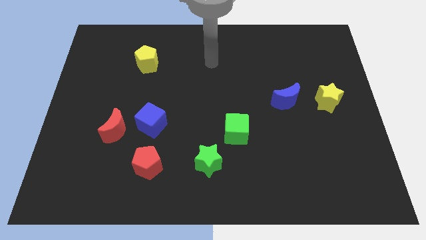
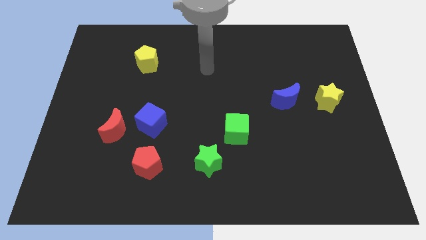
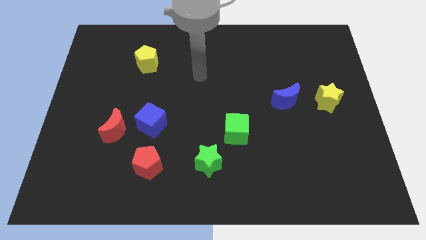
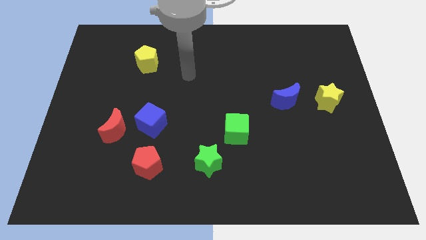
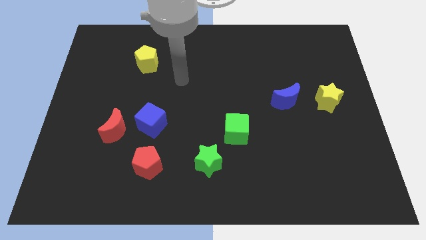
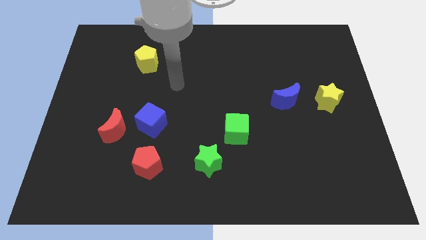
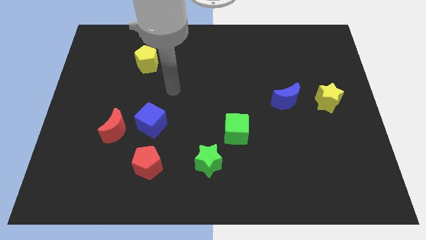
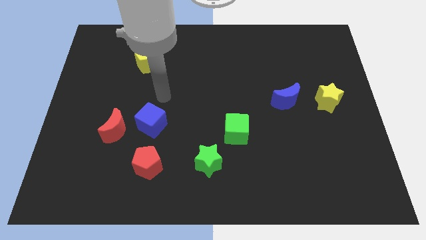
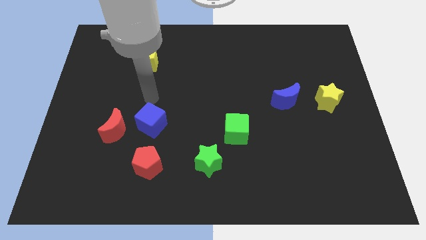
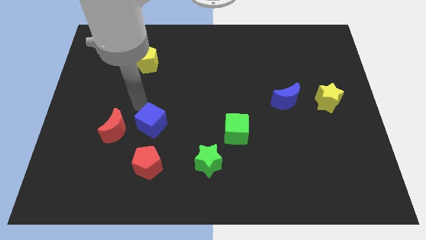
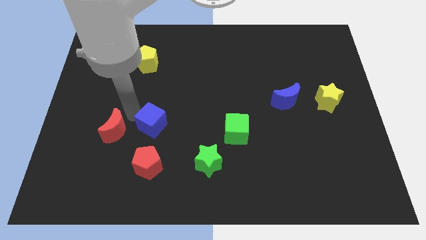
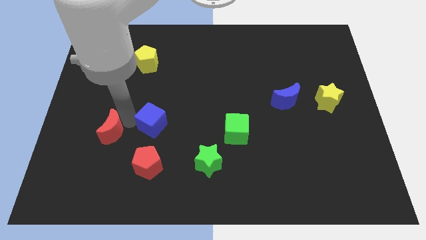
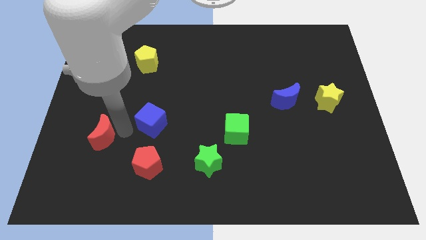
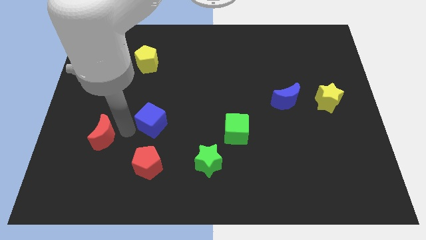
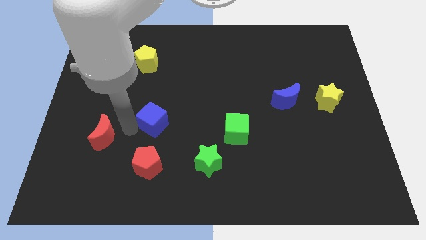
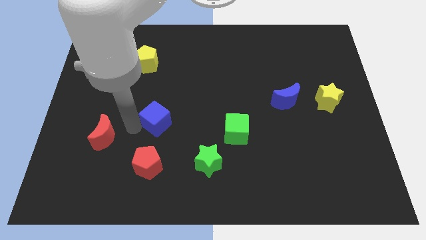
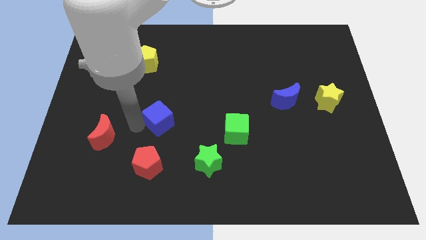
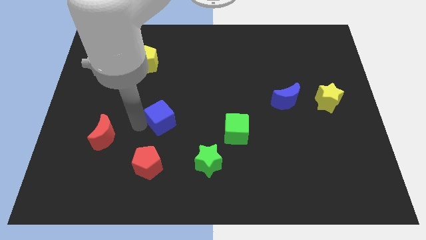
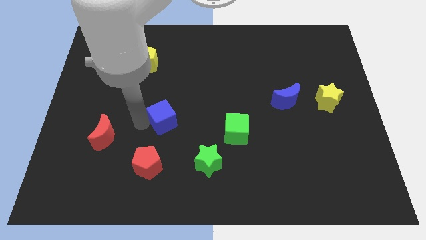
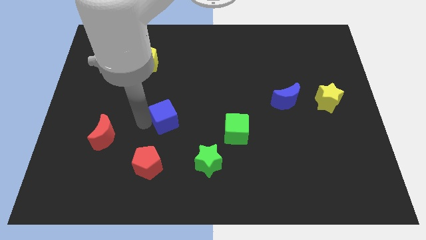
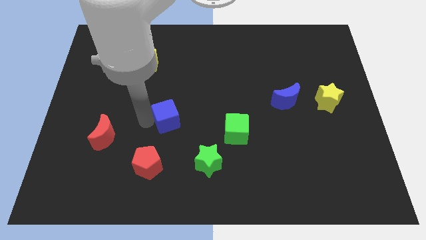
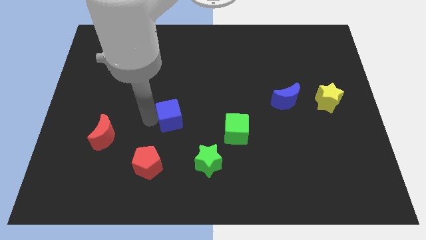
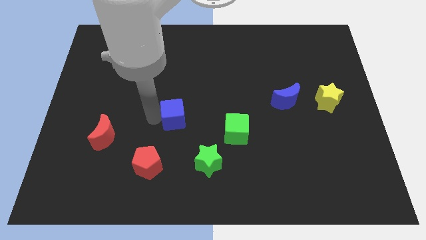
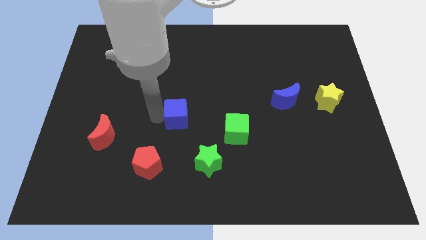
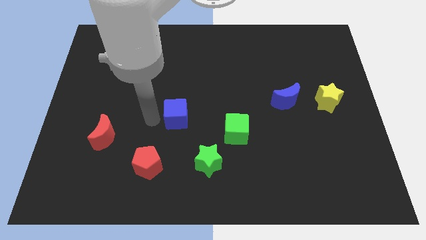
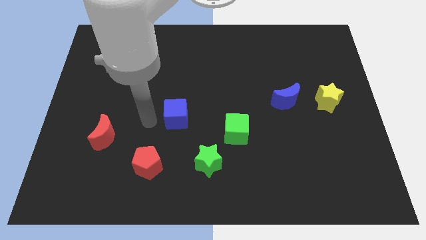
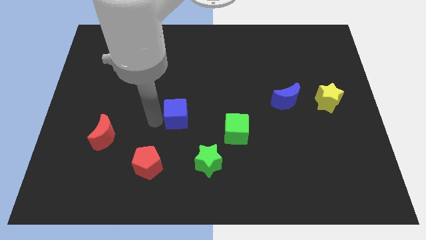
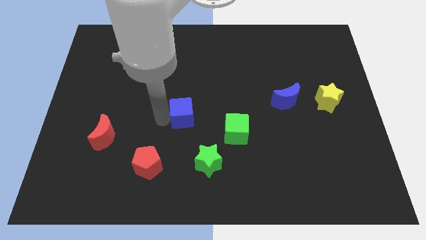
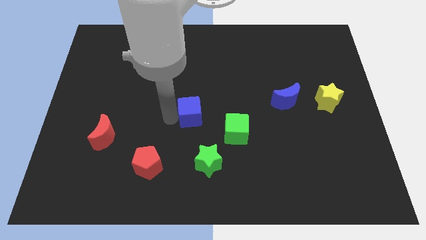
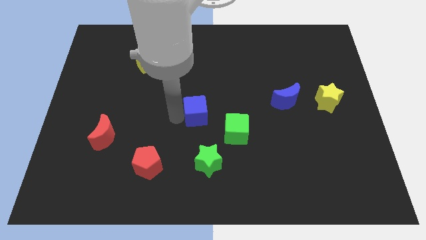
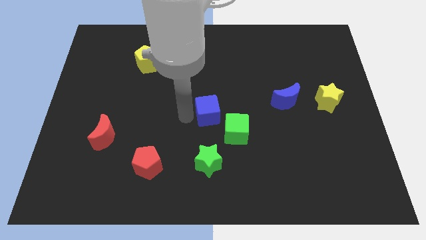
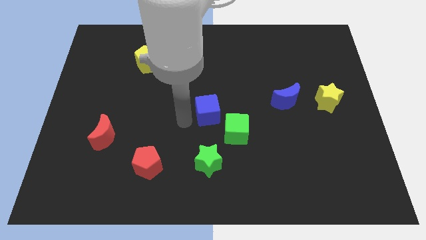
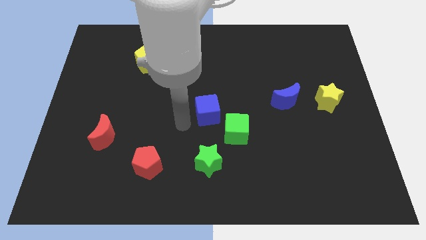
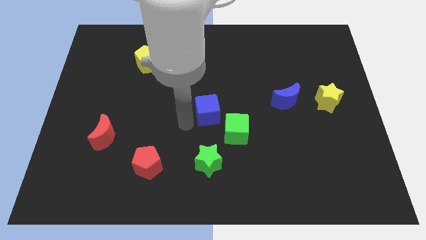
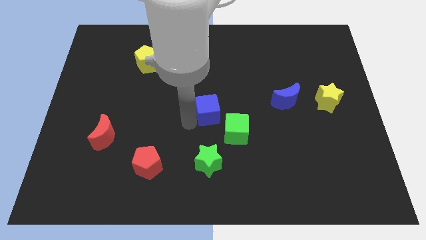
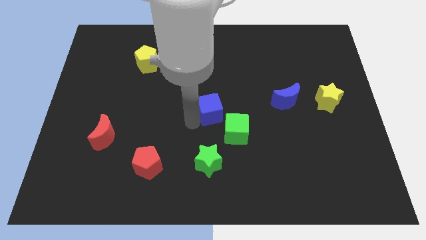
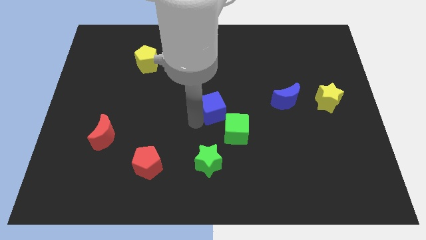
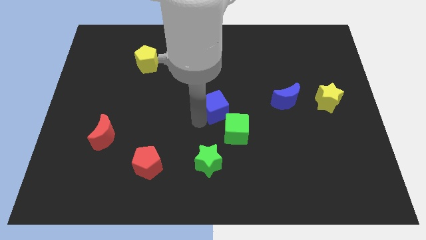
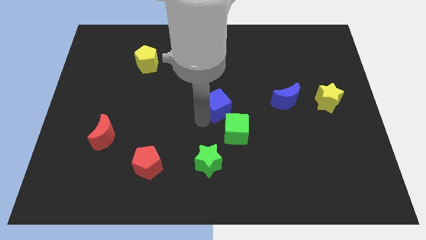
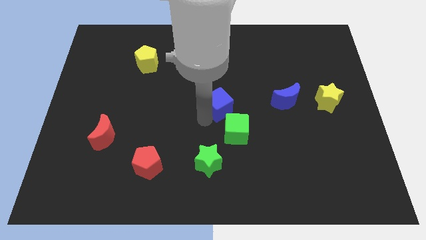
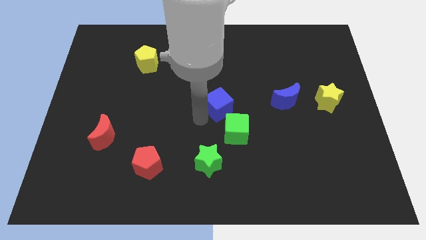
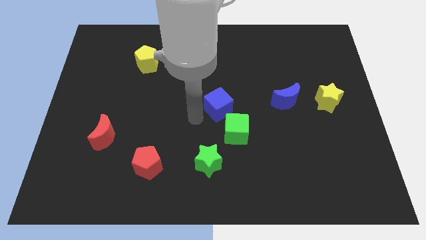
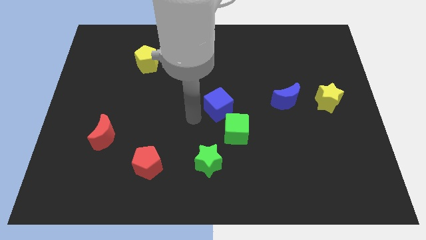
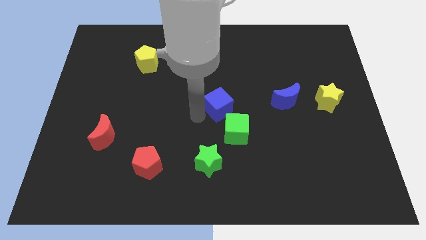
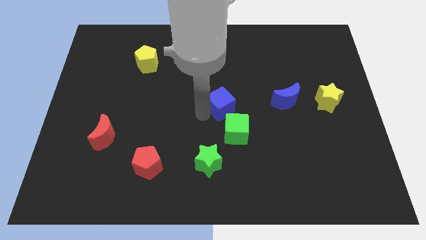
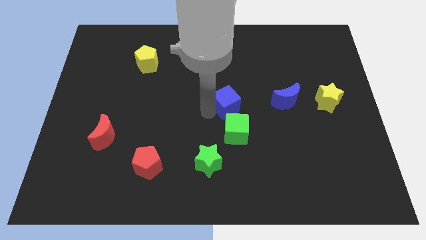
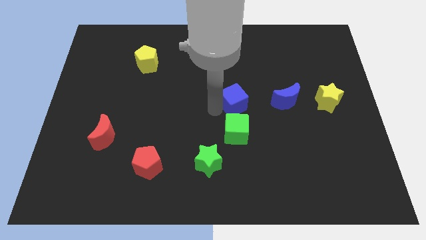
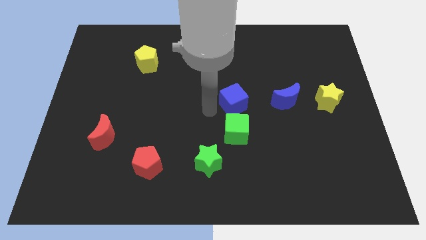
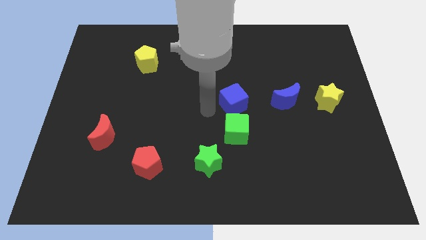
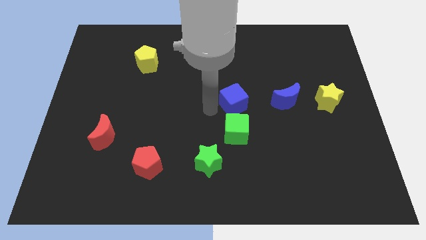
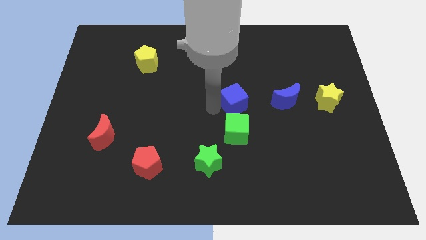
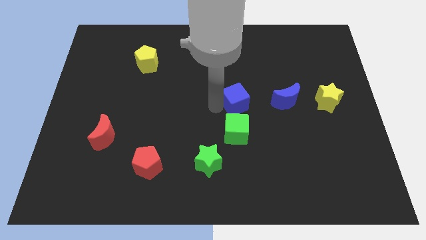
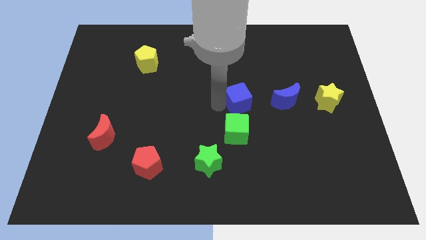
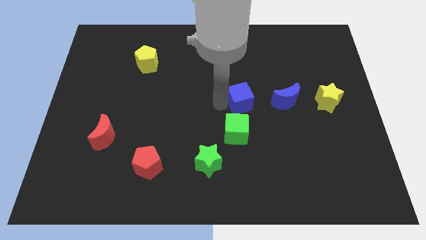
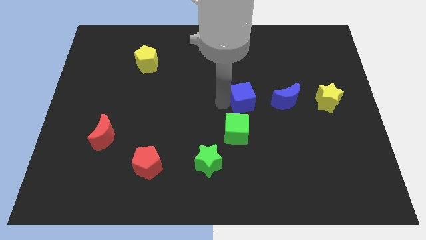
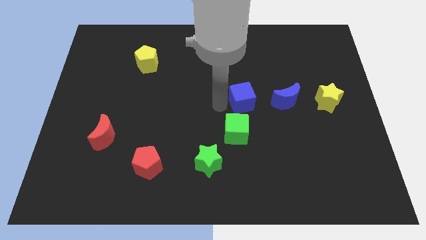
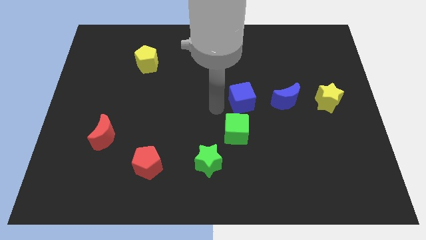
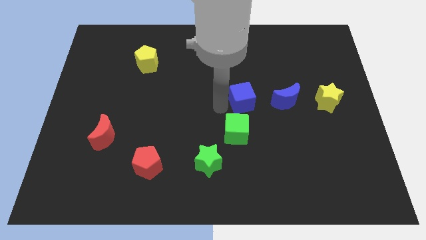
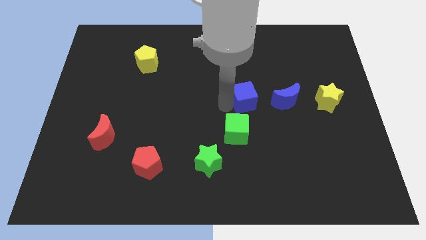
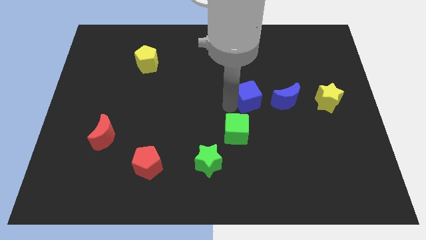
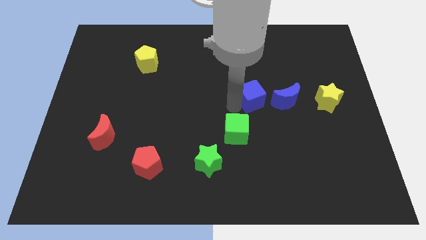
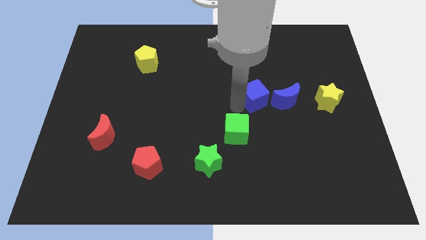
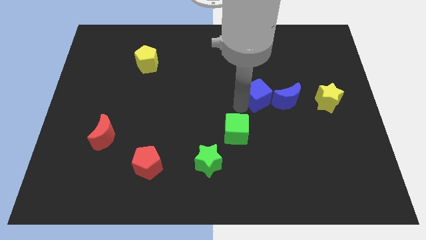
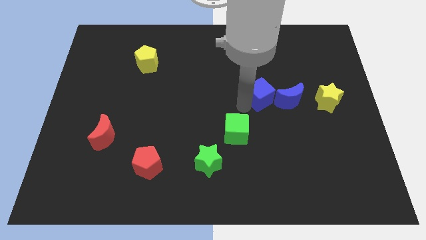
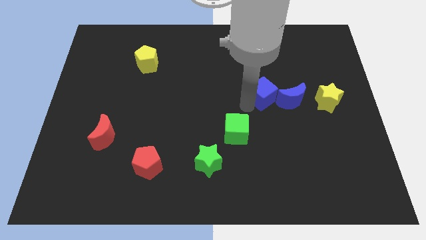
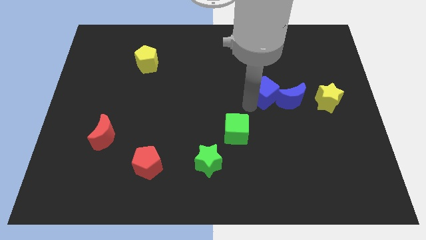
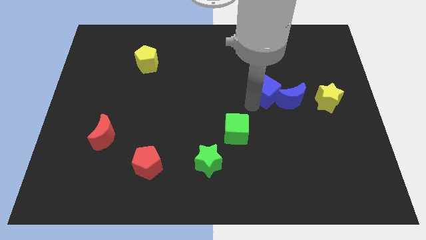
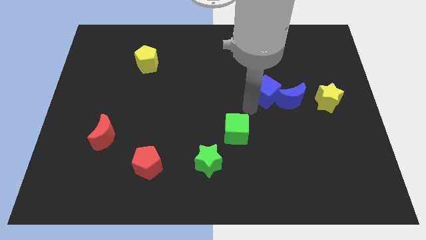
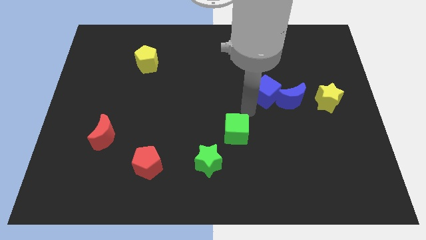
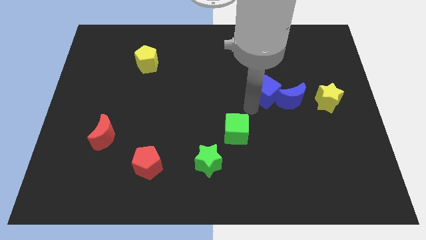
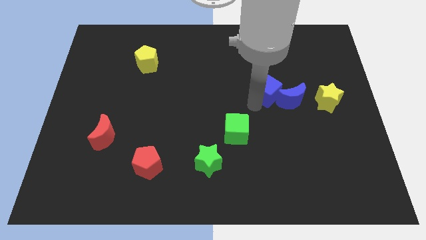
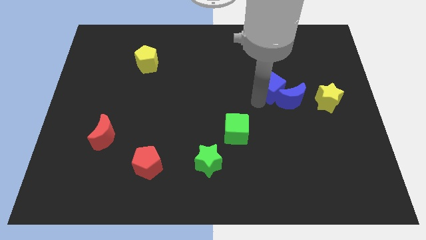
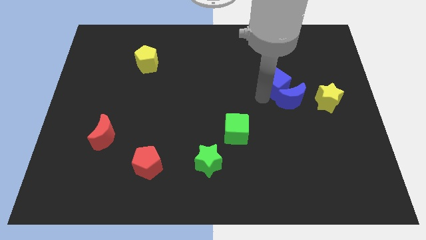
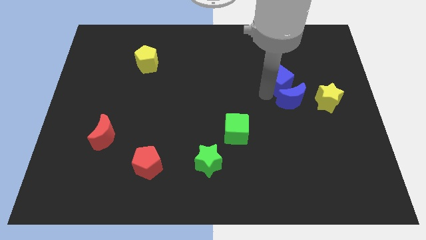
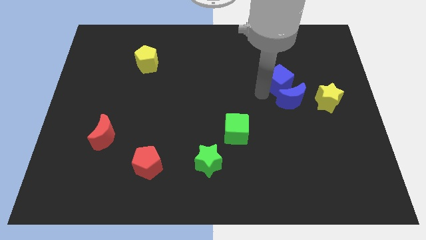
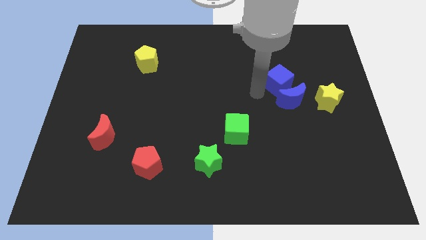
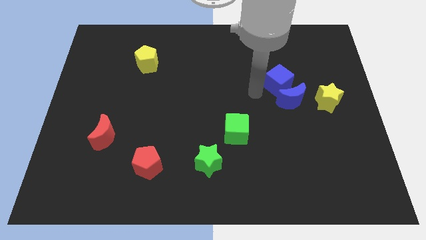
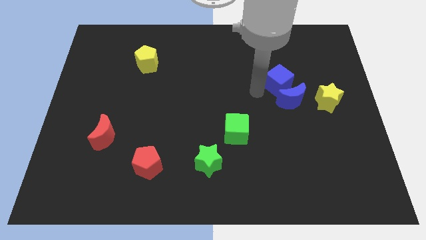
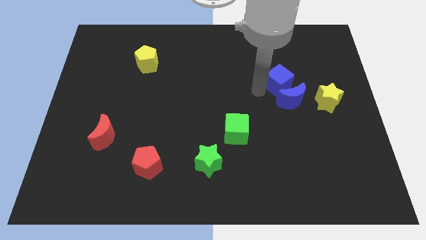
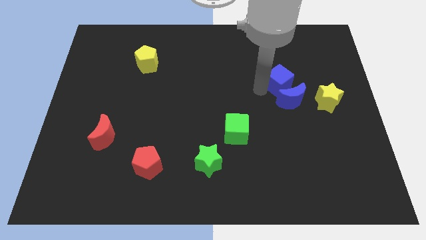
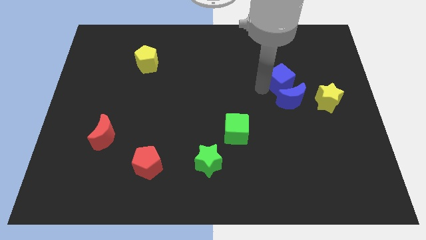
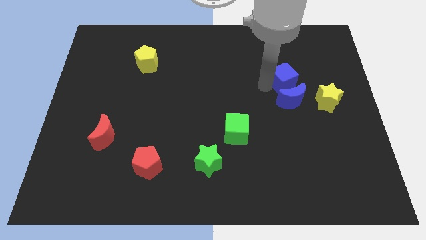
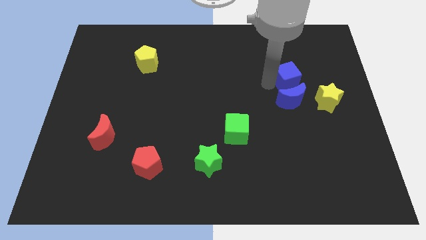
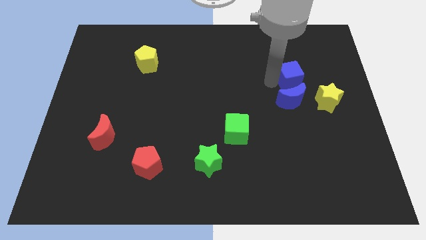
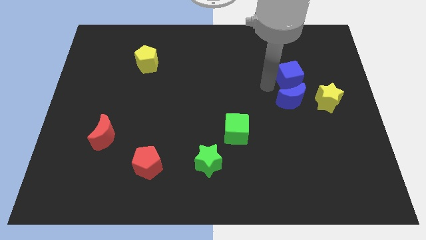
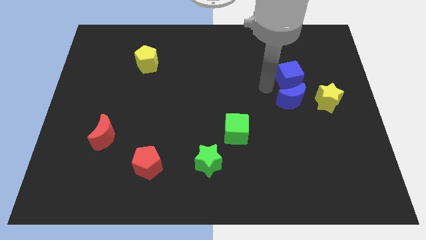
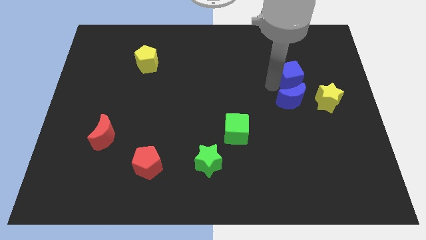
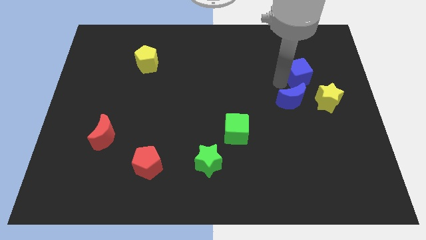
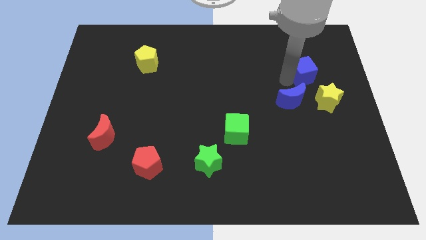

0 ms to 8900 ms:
put the blue cube to the top of the yellow star
